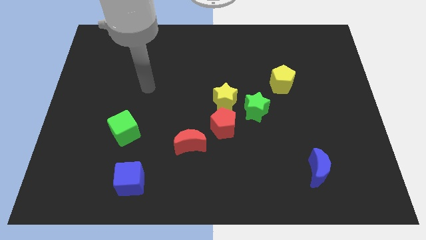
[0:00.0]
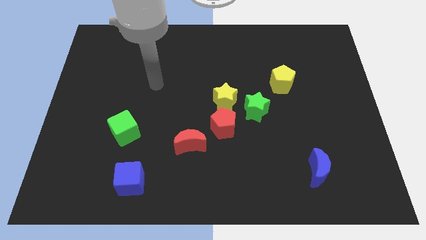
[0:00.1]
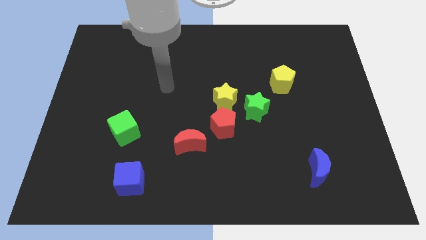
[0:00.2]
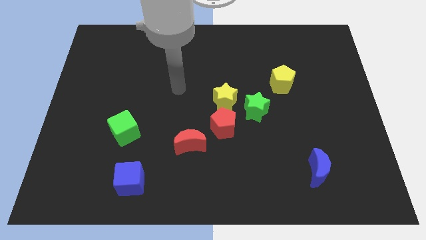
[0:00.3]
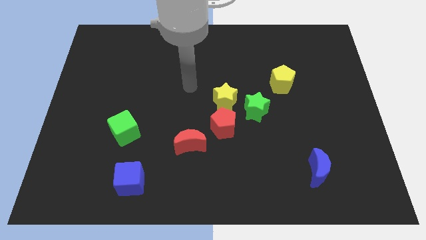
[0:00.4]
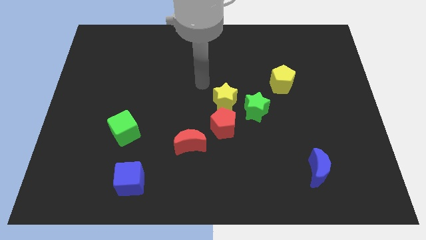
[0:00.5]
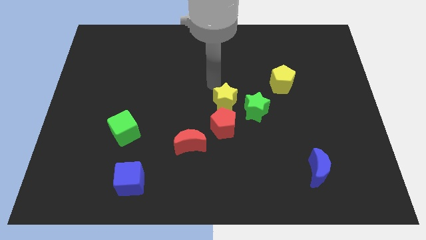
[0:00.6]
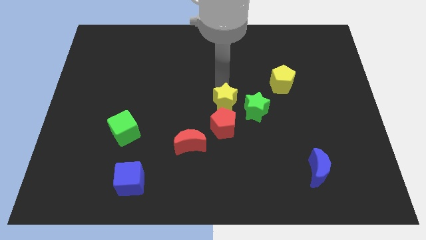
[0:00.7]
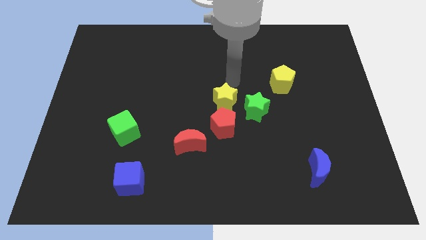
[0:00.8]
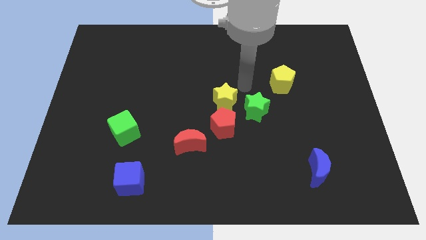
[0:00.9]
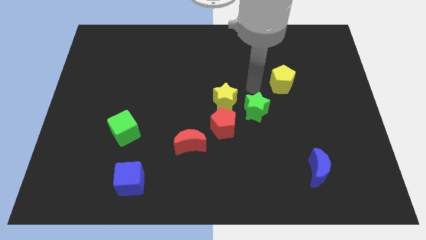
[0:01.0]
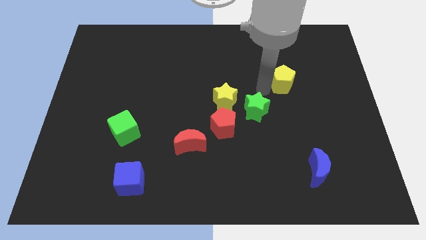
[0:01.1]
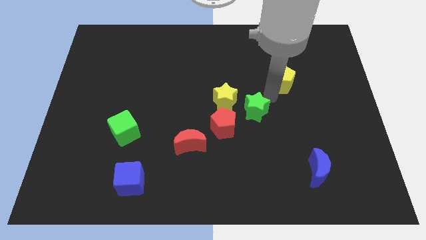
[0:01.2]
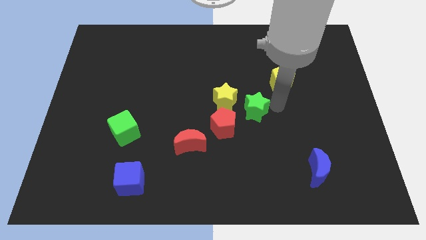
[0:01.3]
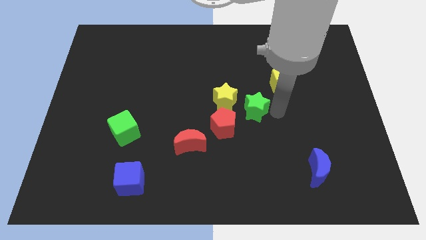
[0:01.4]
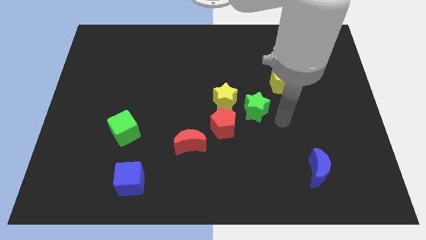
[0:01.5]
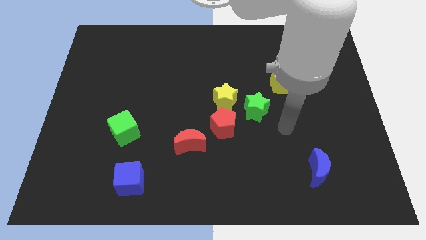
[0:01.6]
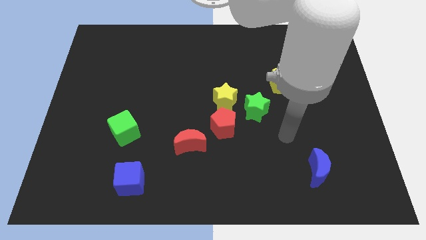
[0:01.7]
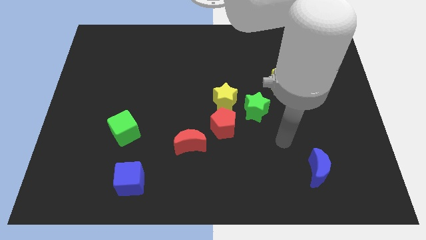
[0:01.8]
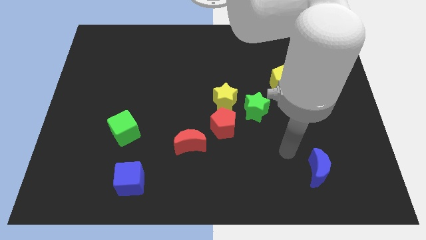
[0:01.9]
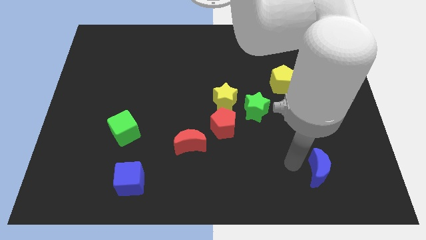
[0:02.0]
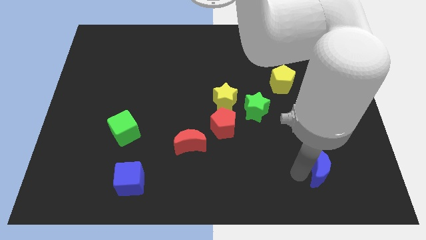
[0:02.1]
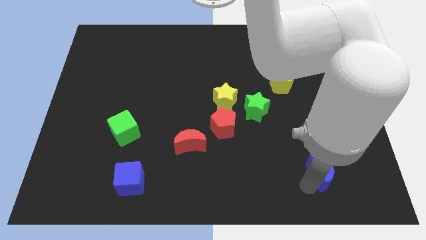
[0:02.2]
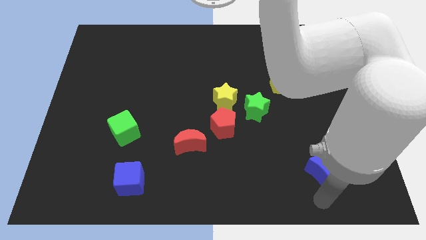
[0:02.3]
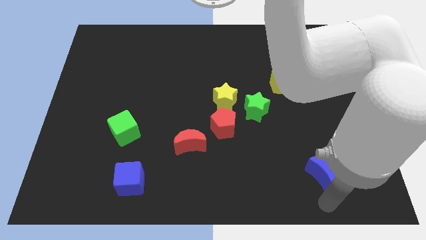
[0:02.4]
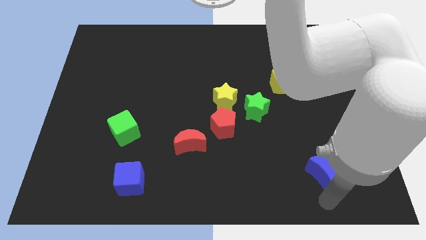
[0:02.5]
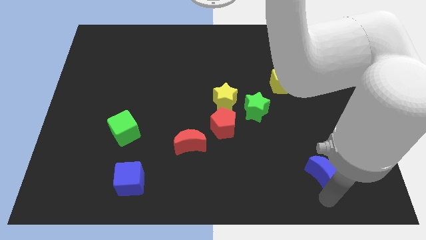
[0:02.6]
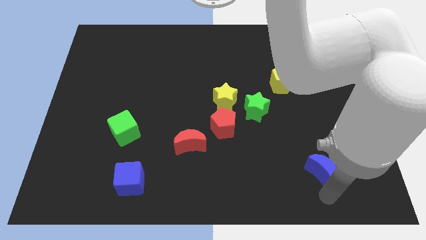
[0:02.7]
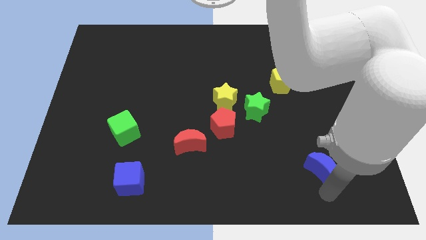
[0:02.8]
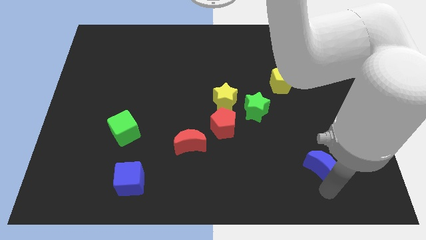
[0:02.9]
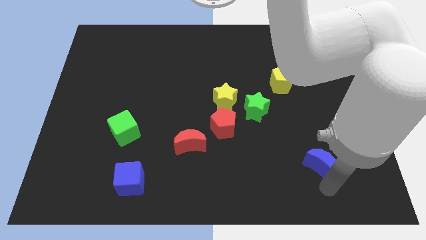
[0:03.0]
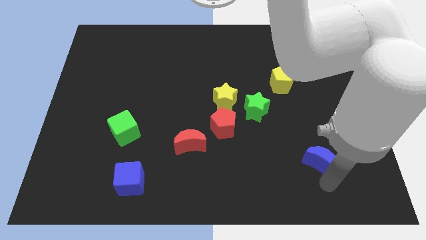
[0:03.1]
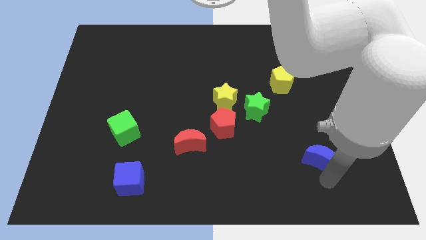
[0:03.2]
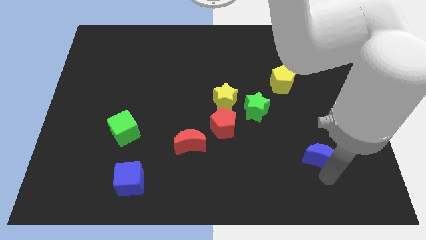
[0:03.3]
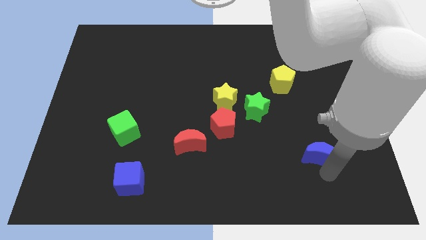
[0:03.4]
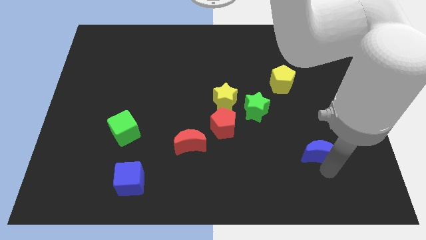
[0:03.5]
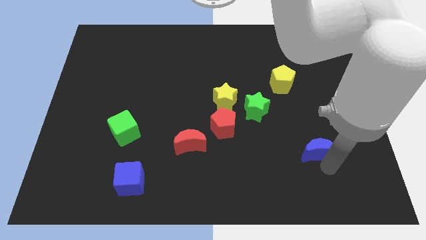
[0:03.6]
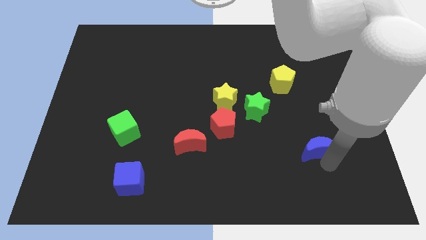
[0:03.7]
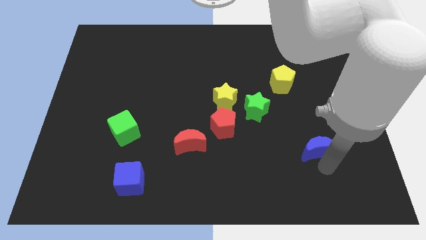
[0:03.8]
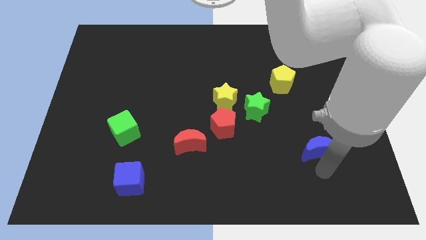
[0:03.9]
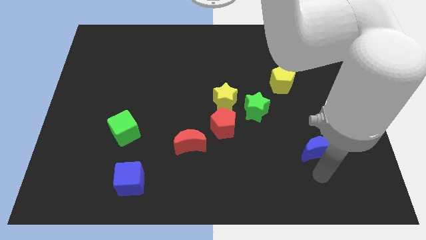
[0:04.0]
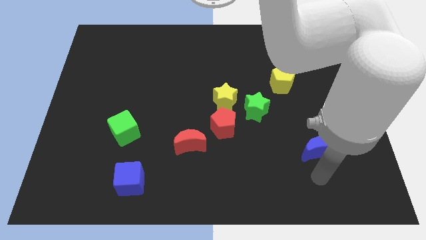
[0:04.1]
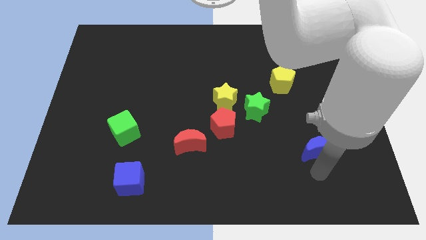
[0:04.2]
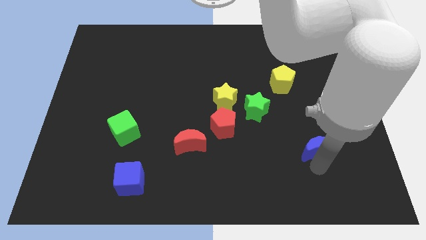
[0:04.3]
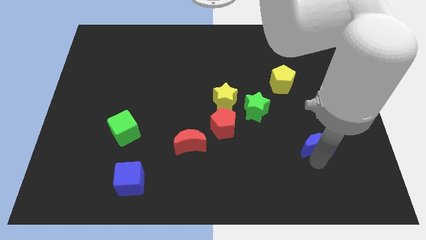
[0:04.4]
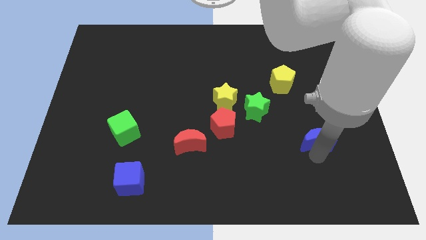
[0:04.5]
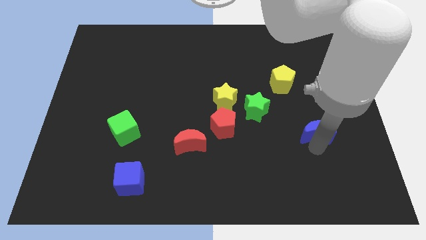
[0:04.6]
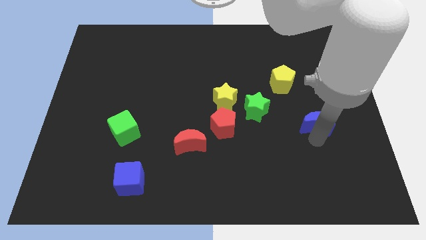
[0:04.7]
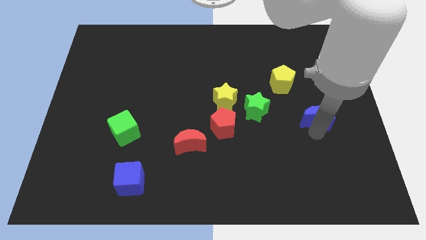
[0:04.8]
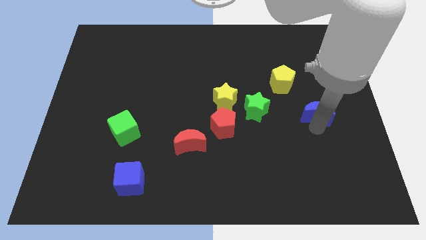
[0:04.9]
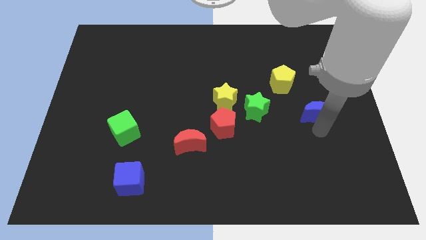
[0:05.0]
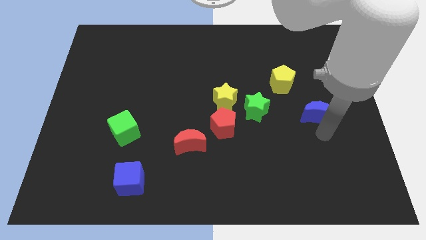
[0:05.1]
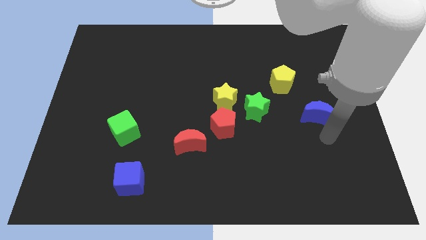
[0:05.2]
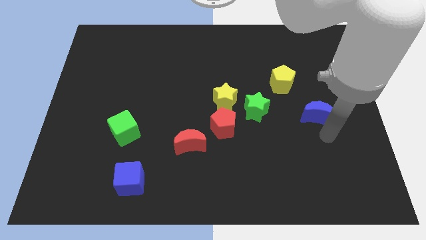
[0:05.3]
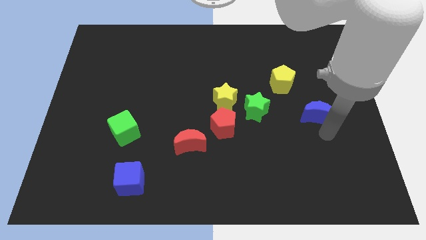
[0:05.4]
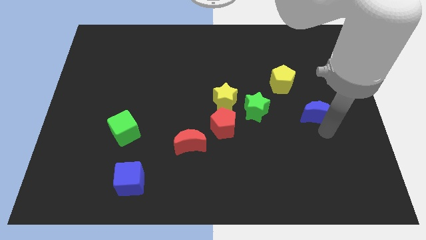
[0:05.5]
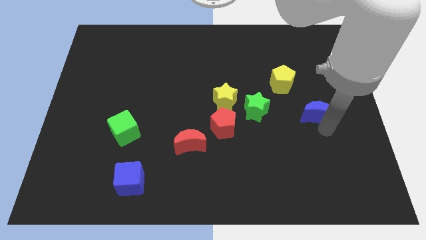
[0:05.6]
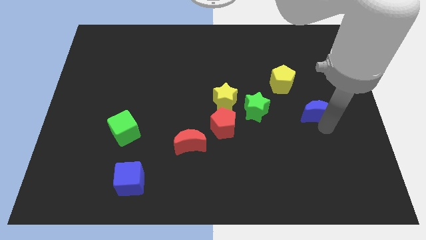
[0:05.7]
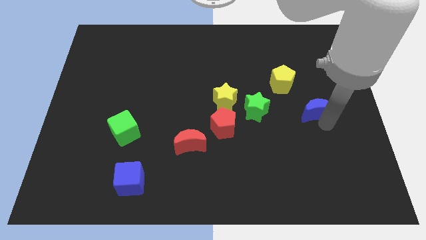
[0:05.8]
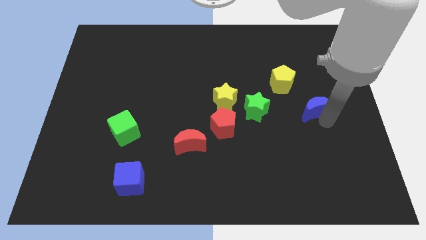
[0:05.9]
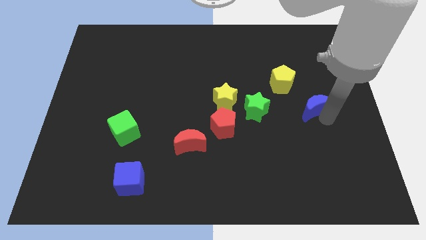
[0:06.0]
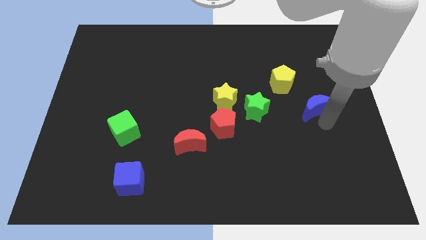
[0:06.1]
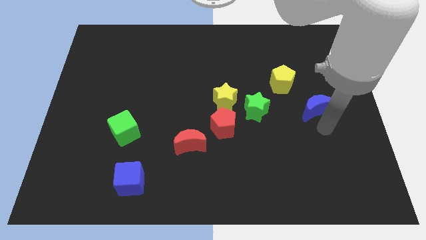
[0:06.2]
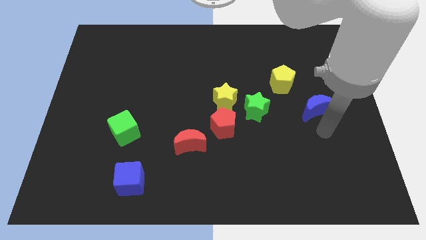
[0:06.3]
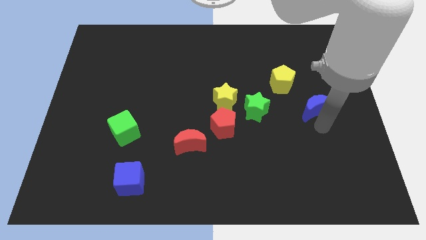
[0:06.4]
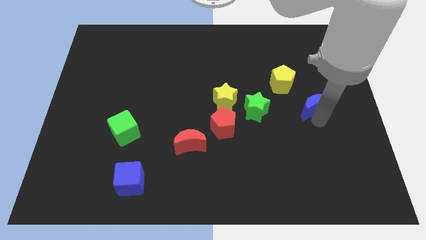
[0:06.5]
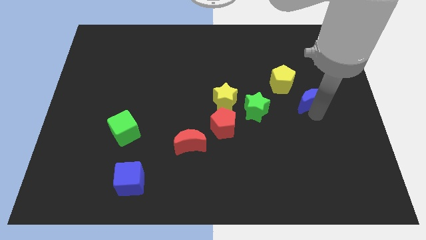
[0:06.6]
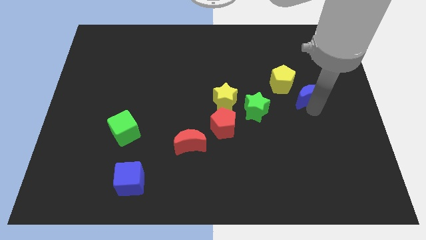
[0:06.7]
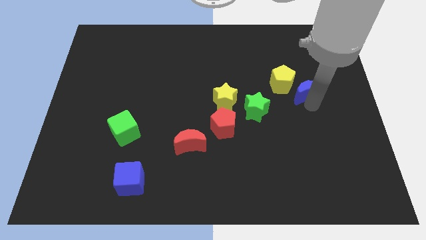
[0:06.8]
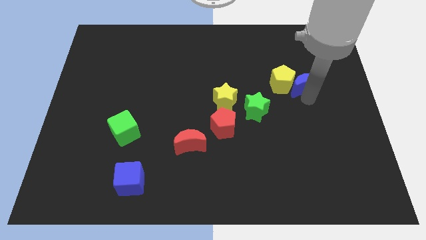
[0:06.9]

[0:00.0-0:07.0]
slide the blue moon to the top right of the yellow pentagon

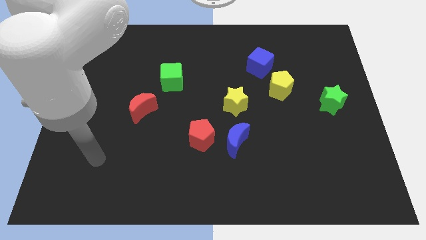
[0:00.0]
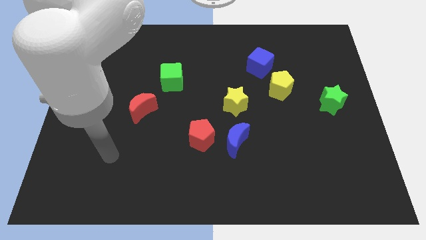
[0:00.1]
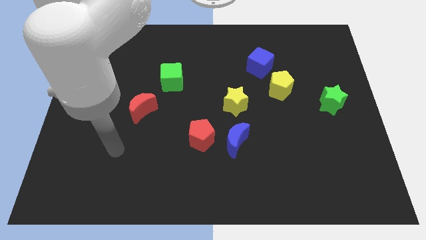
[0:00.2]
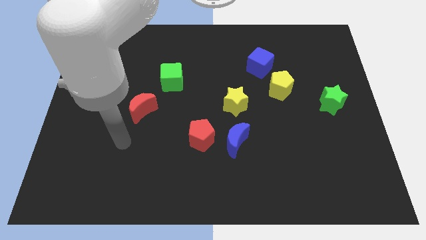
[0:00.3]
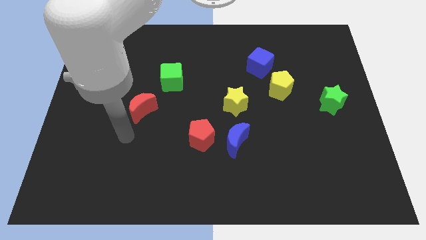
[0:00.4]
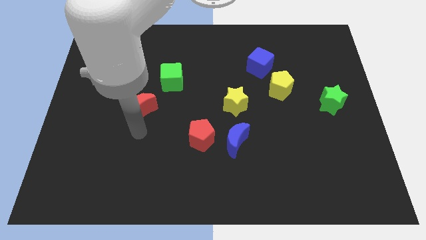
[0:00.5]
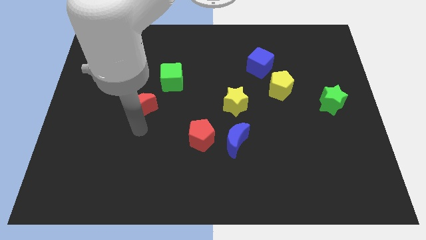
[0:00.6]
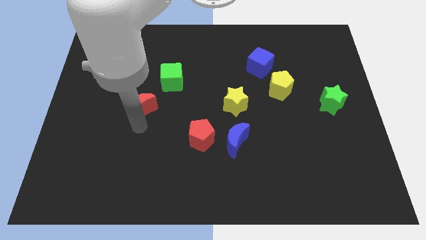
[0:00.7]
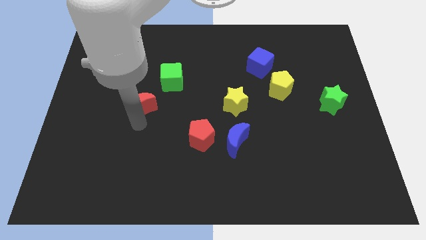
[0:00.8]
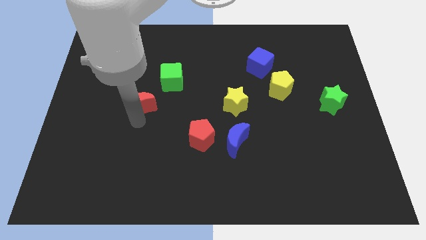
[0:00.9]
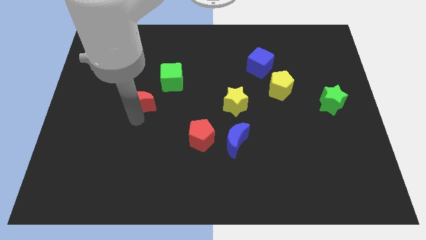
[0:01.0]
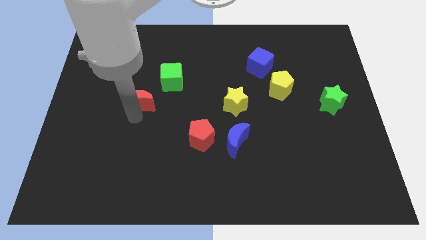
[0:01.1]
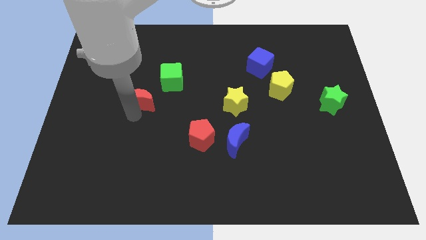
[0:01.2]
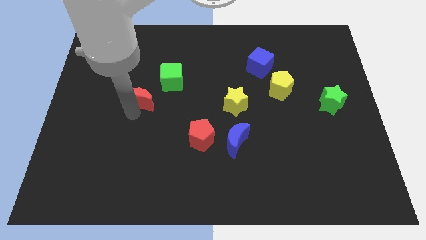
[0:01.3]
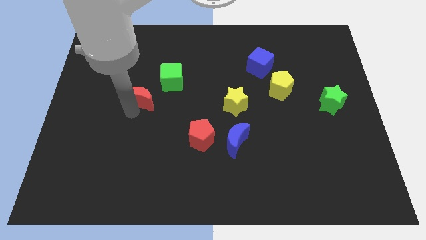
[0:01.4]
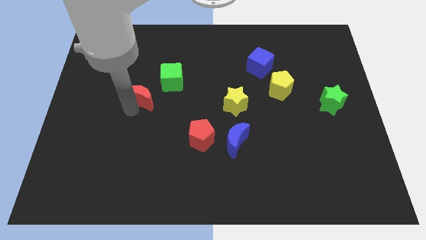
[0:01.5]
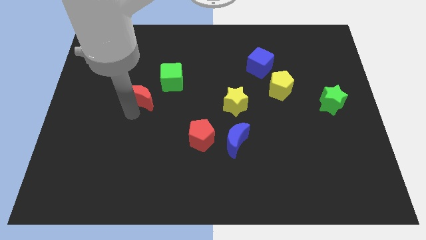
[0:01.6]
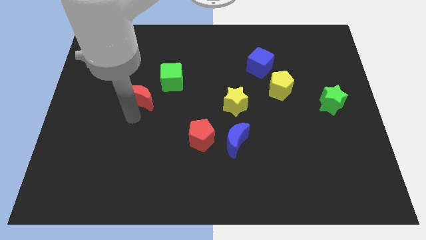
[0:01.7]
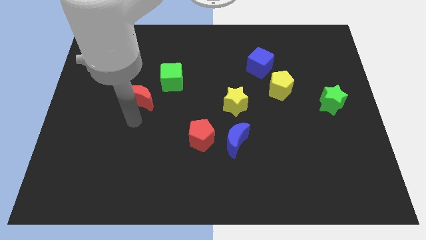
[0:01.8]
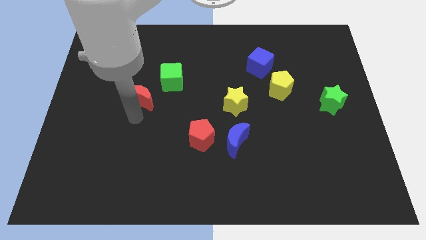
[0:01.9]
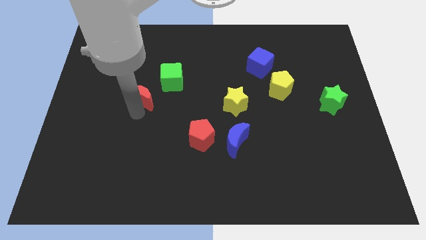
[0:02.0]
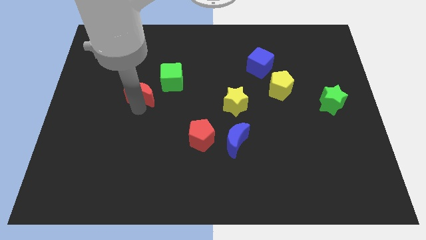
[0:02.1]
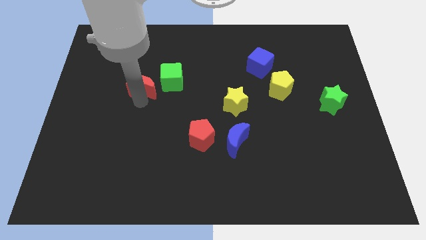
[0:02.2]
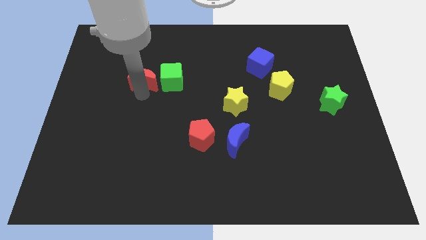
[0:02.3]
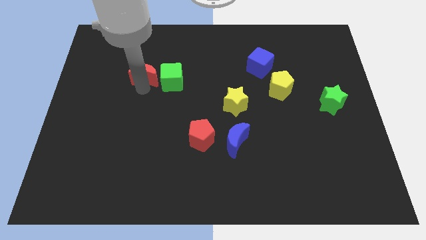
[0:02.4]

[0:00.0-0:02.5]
push the red moon diagonally up and to the left of the green cube
